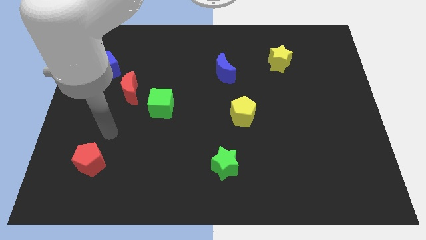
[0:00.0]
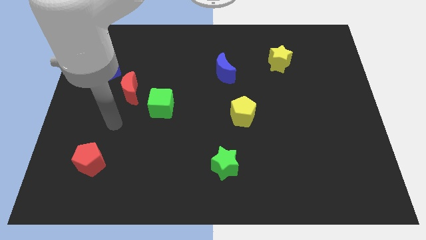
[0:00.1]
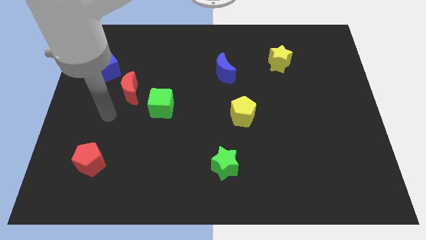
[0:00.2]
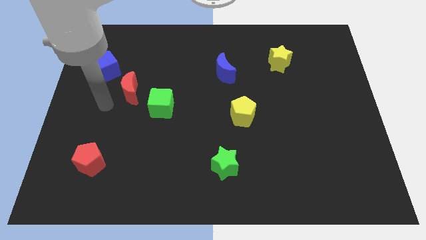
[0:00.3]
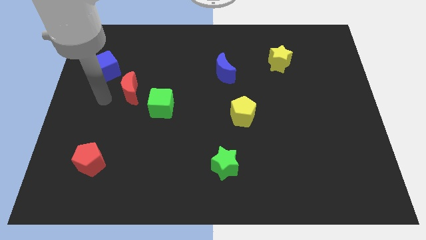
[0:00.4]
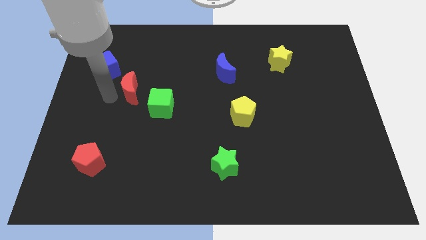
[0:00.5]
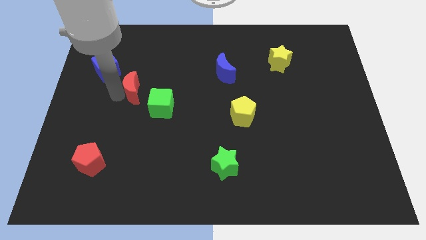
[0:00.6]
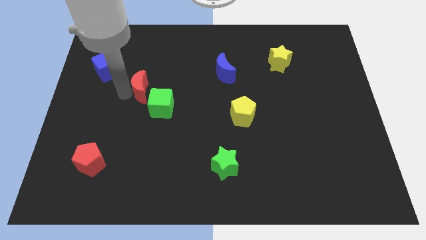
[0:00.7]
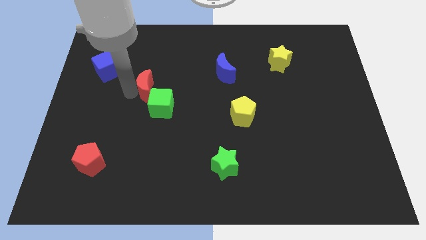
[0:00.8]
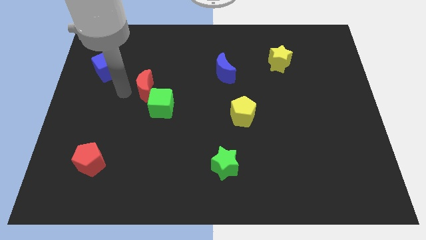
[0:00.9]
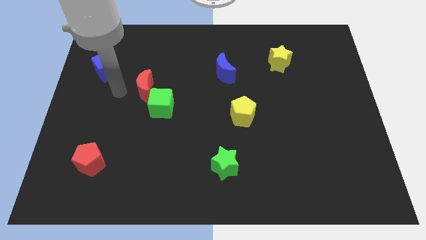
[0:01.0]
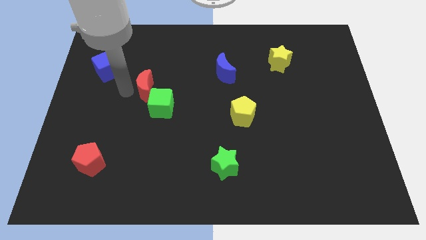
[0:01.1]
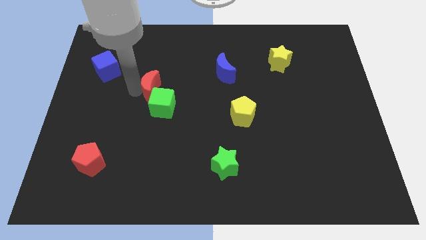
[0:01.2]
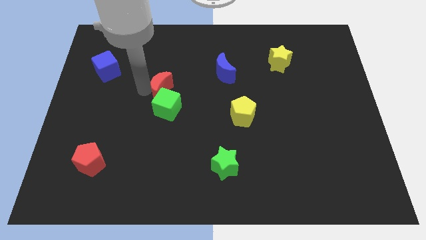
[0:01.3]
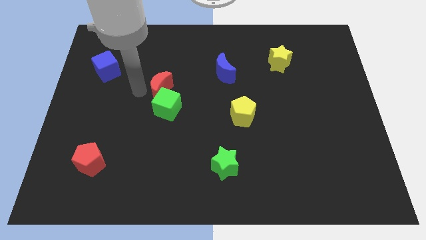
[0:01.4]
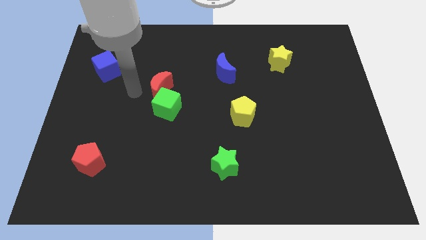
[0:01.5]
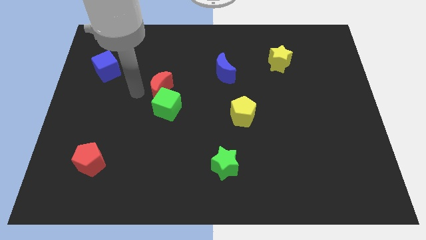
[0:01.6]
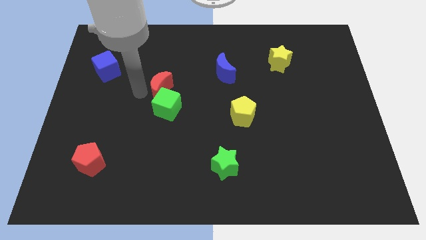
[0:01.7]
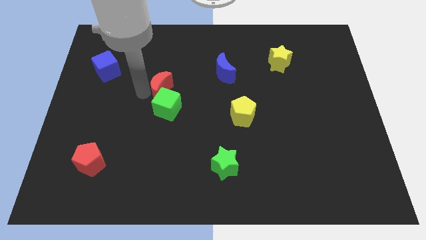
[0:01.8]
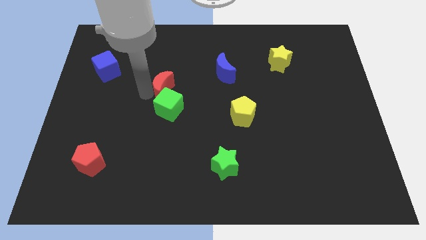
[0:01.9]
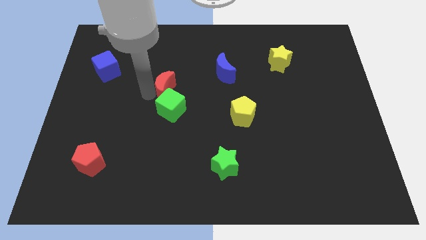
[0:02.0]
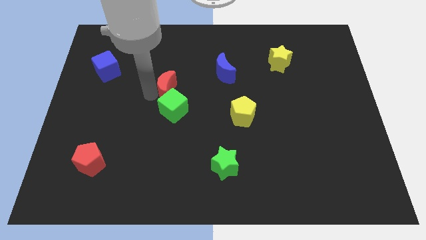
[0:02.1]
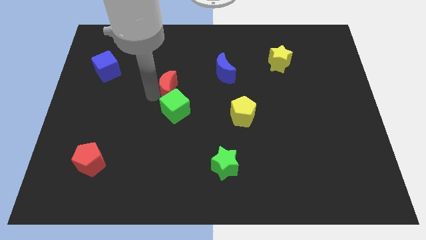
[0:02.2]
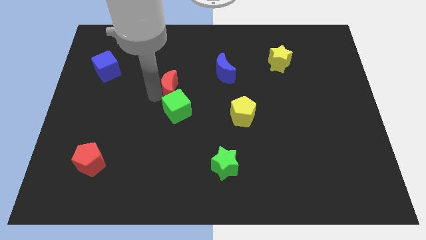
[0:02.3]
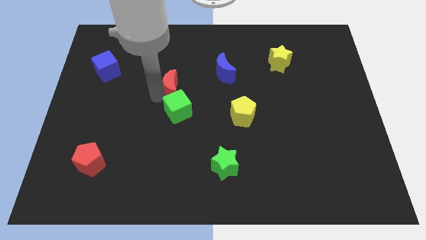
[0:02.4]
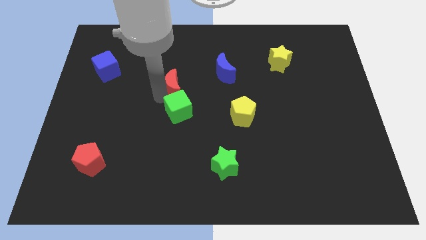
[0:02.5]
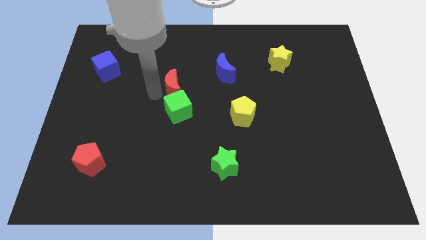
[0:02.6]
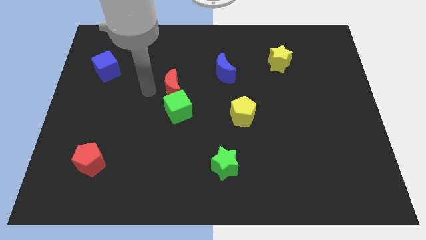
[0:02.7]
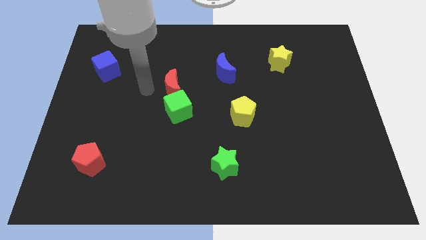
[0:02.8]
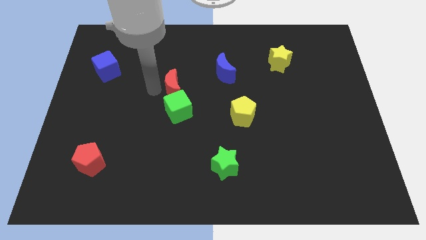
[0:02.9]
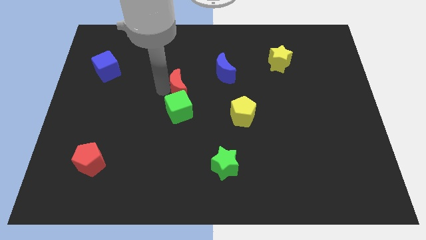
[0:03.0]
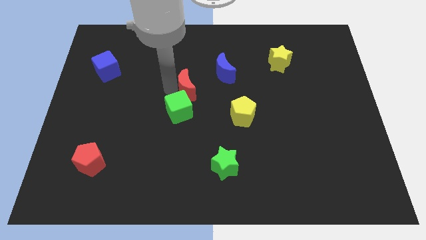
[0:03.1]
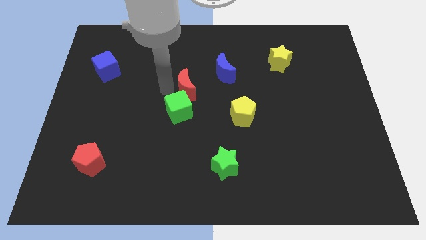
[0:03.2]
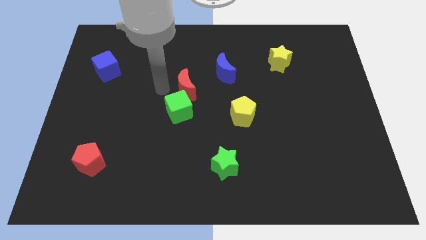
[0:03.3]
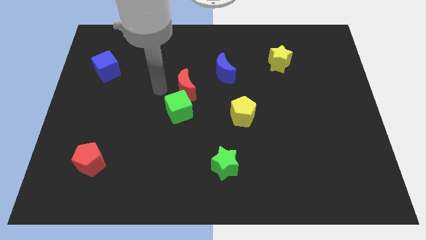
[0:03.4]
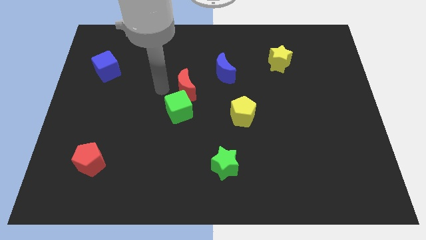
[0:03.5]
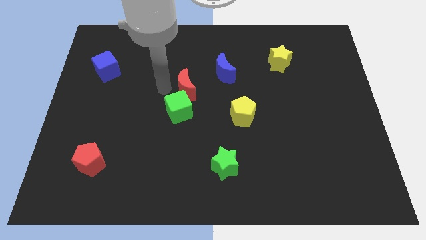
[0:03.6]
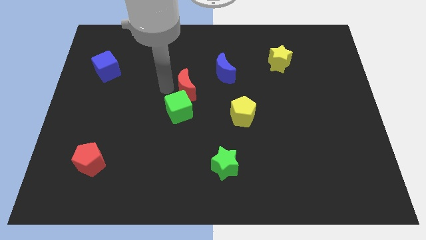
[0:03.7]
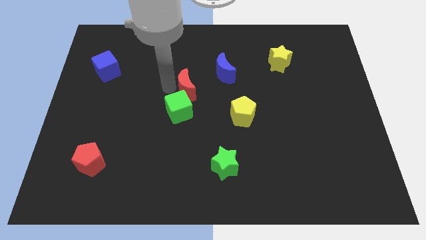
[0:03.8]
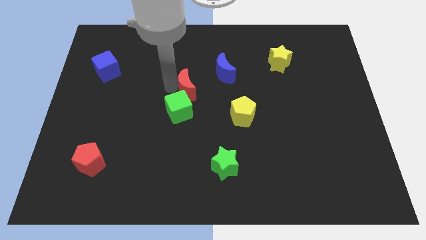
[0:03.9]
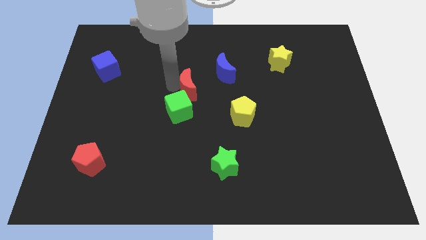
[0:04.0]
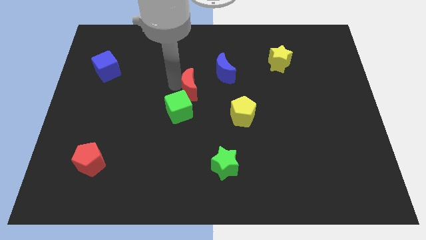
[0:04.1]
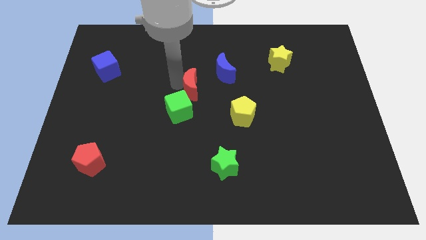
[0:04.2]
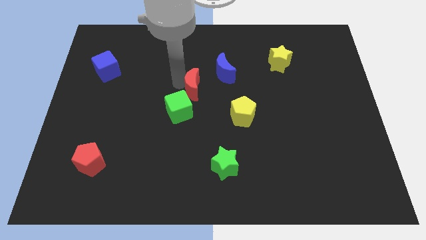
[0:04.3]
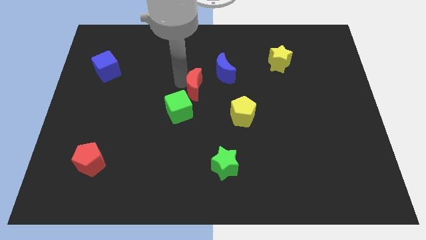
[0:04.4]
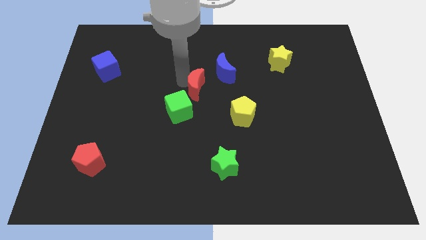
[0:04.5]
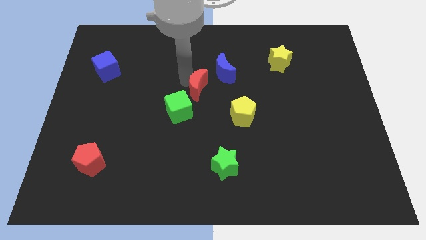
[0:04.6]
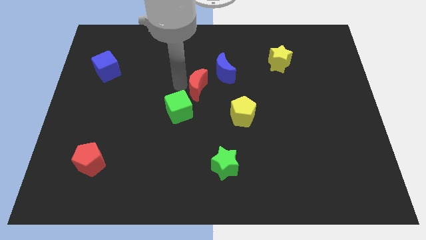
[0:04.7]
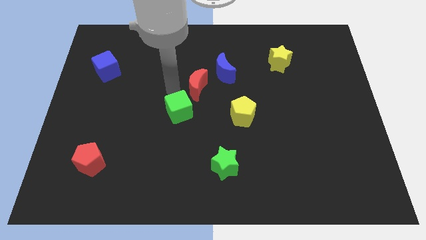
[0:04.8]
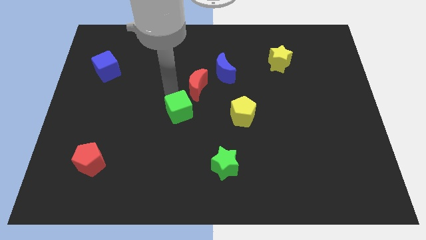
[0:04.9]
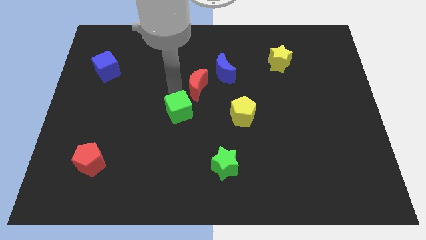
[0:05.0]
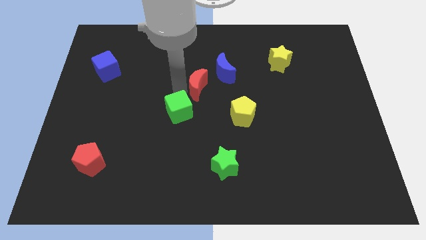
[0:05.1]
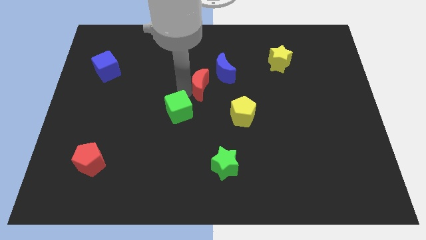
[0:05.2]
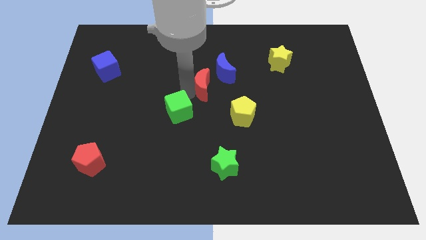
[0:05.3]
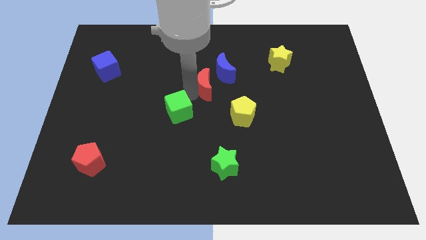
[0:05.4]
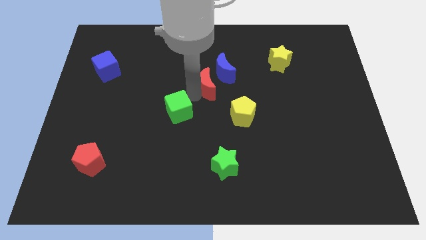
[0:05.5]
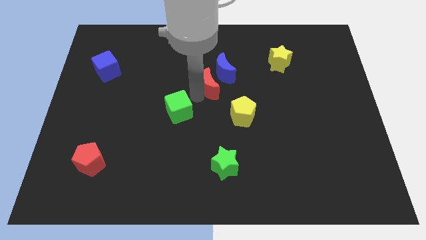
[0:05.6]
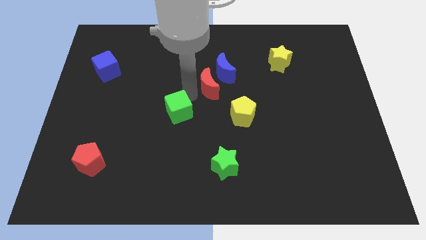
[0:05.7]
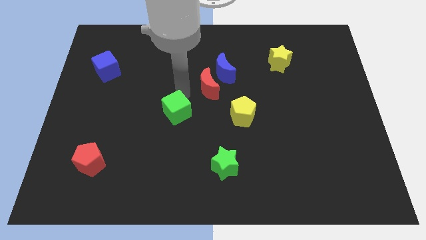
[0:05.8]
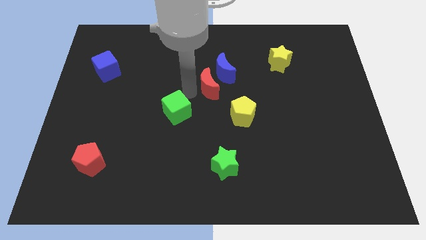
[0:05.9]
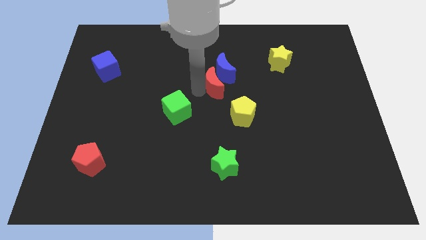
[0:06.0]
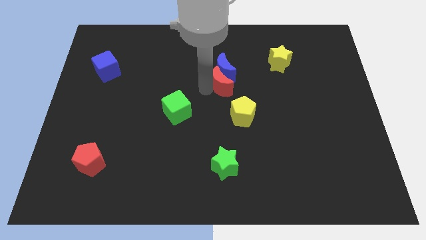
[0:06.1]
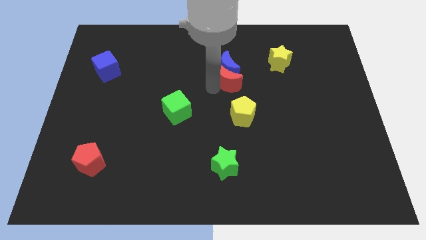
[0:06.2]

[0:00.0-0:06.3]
move the red moon to the top side of the yellow pentagon

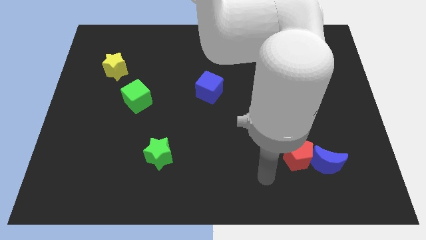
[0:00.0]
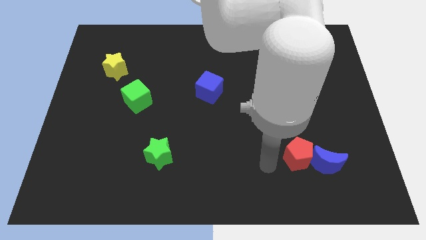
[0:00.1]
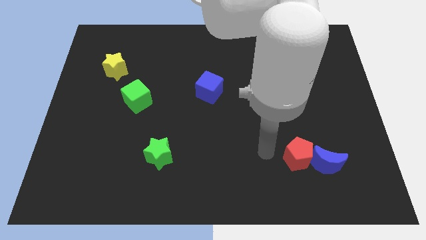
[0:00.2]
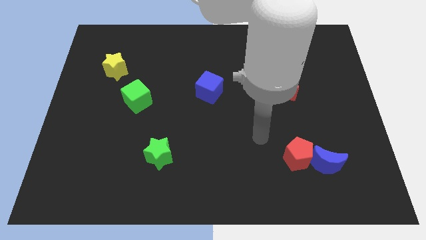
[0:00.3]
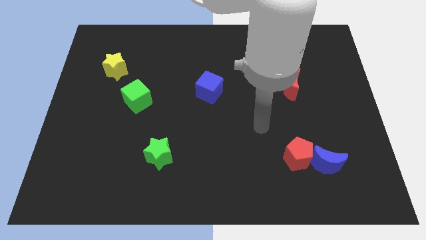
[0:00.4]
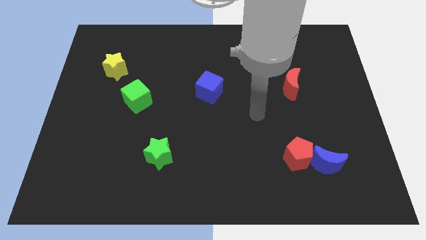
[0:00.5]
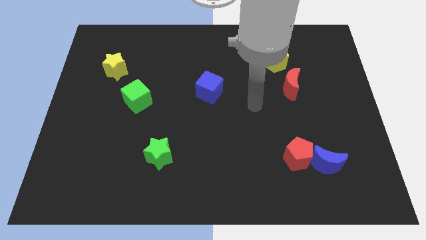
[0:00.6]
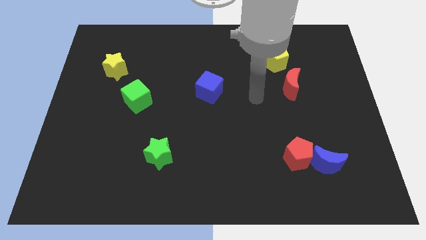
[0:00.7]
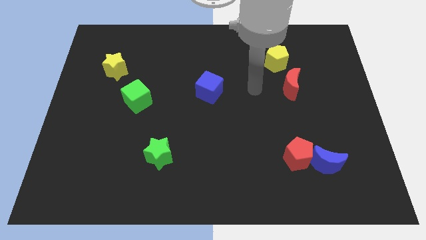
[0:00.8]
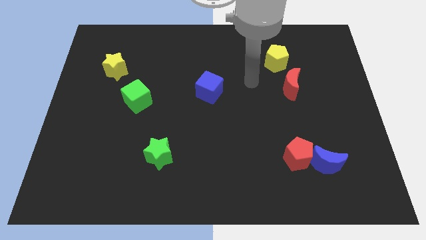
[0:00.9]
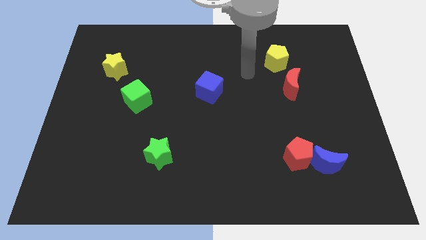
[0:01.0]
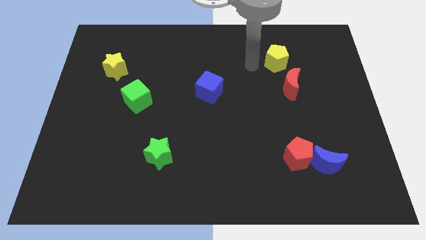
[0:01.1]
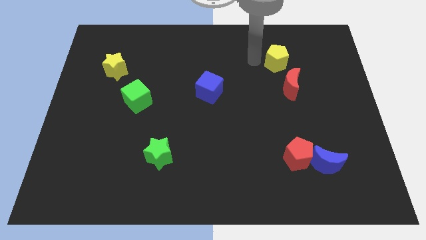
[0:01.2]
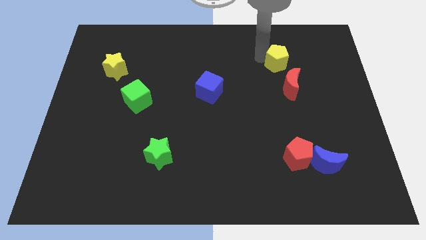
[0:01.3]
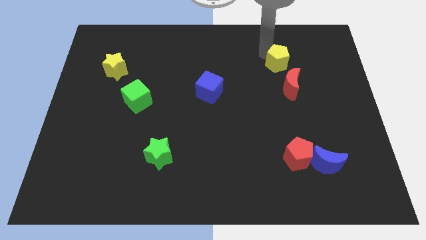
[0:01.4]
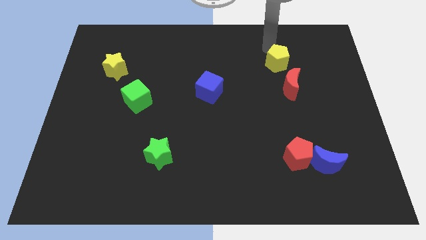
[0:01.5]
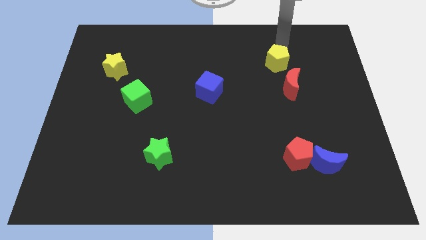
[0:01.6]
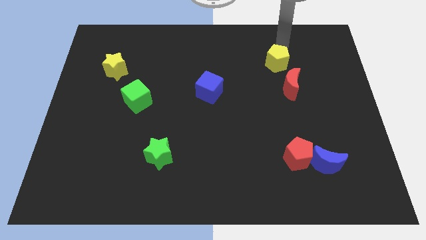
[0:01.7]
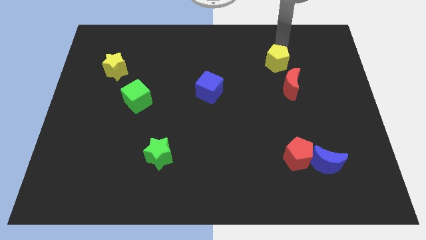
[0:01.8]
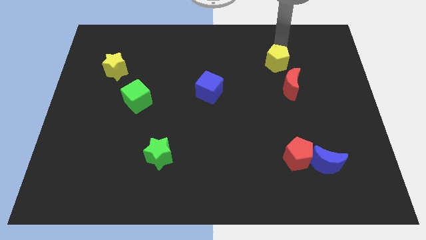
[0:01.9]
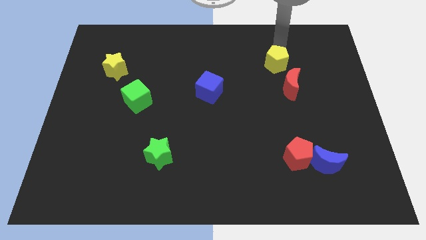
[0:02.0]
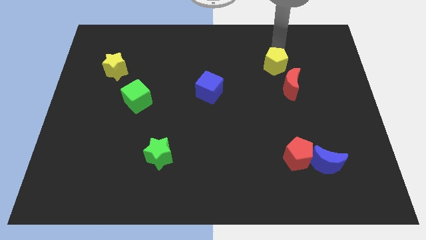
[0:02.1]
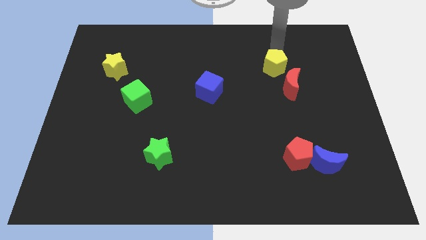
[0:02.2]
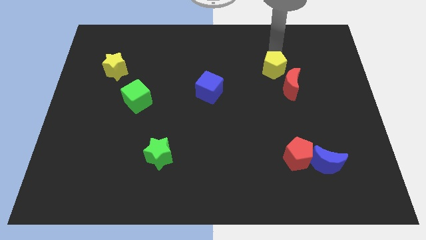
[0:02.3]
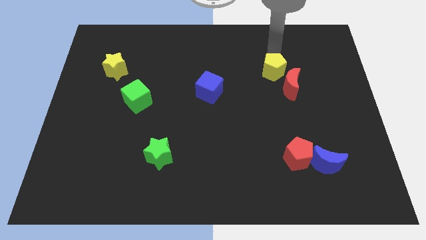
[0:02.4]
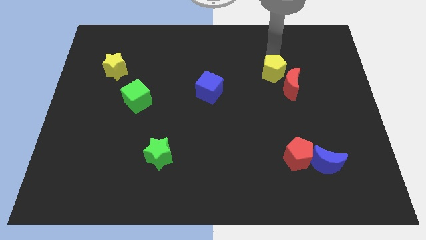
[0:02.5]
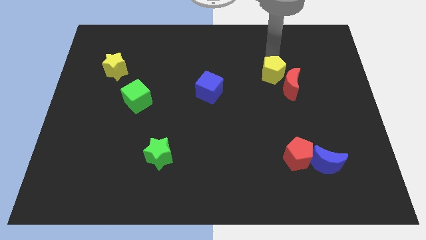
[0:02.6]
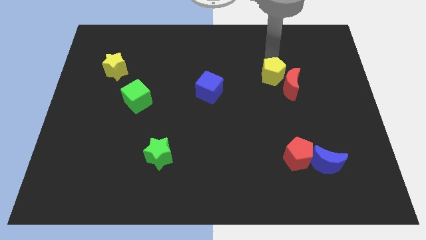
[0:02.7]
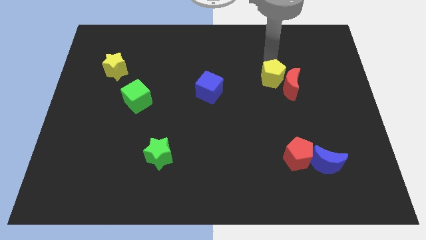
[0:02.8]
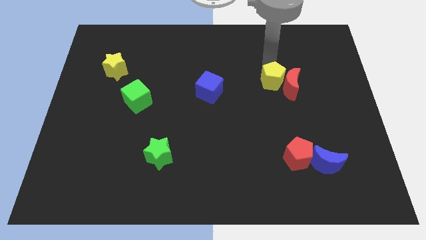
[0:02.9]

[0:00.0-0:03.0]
slide the yellow pentagon to the bottom left side of the red moon
